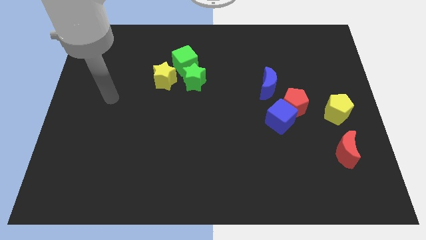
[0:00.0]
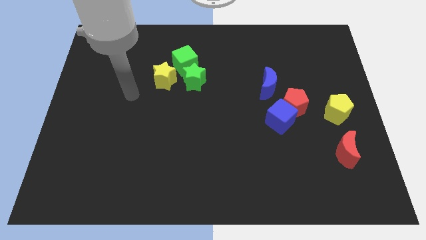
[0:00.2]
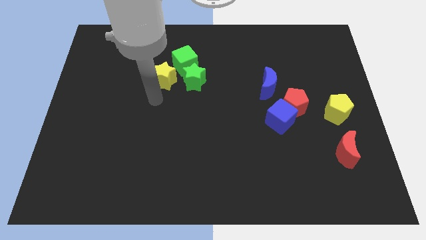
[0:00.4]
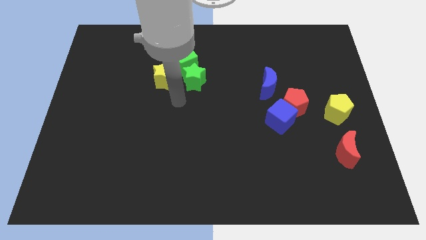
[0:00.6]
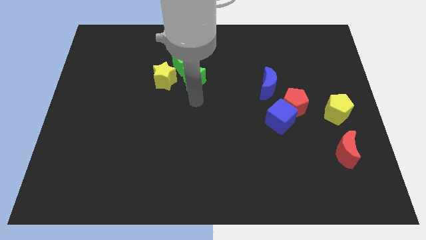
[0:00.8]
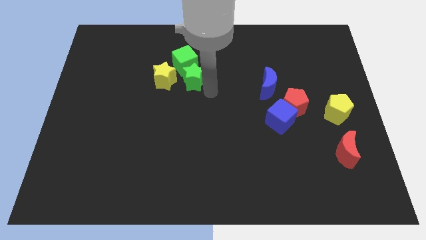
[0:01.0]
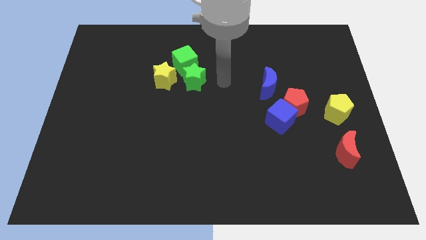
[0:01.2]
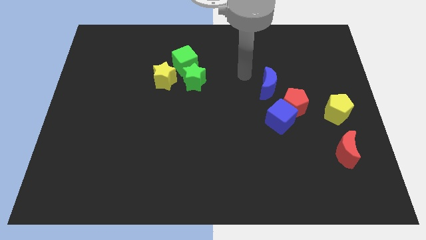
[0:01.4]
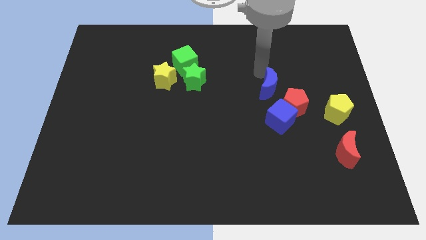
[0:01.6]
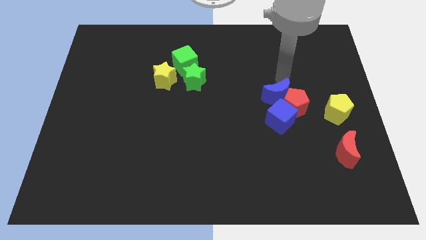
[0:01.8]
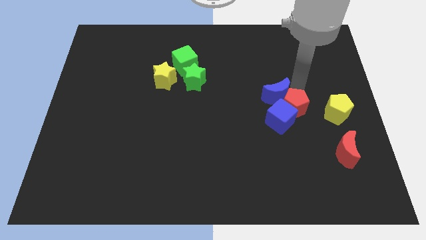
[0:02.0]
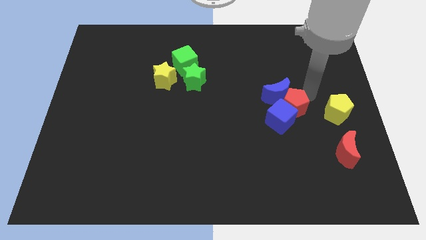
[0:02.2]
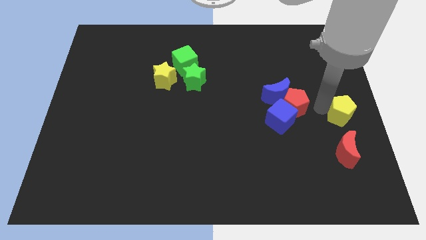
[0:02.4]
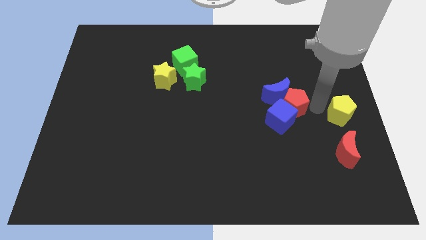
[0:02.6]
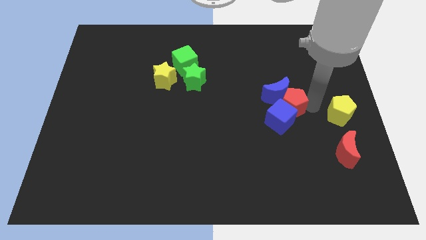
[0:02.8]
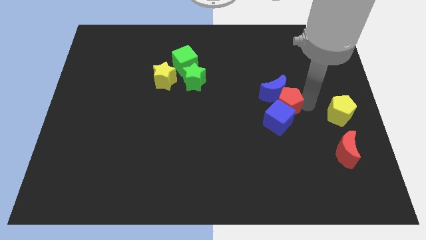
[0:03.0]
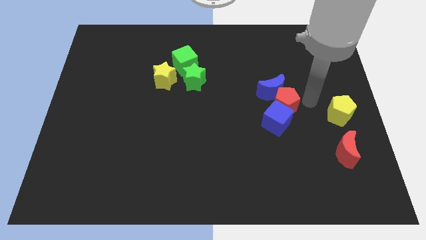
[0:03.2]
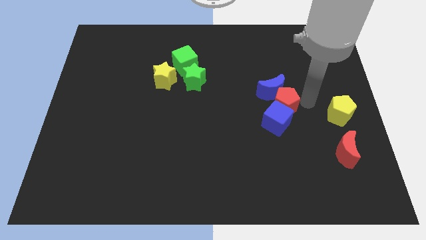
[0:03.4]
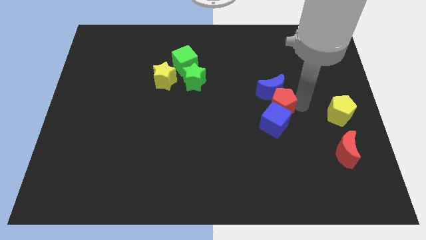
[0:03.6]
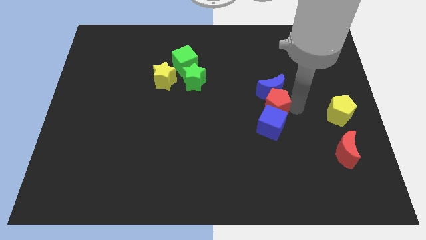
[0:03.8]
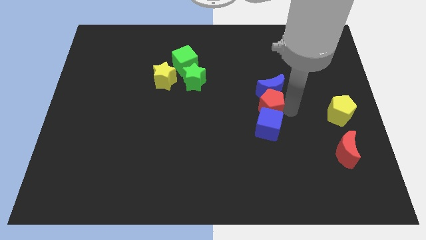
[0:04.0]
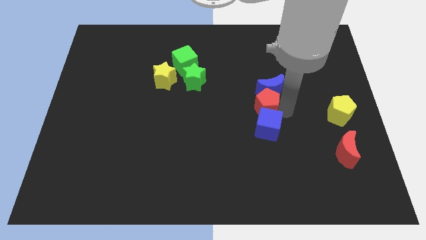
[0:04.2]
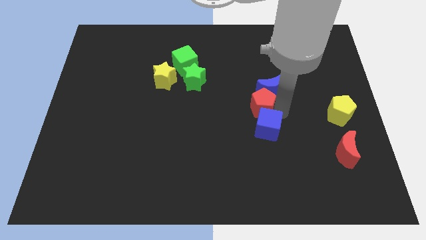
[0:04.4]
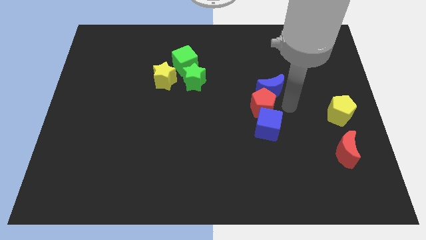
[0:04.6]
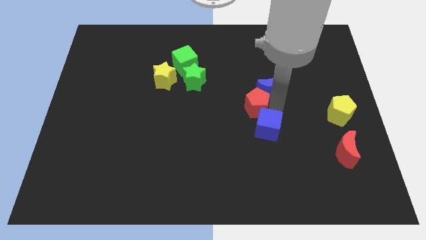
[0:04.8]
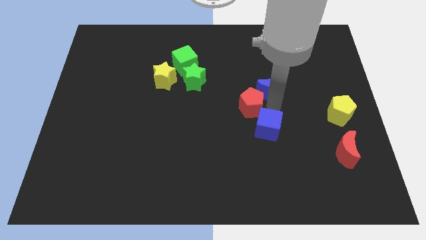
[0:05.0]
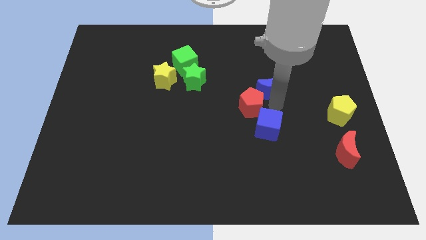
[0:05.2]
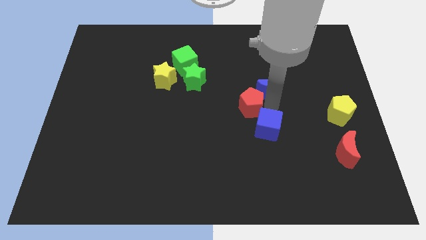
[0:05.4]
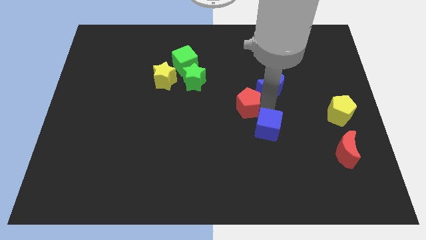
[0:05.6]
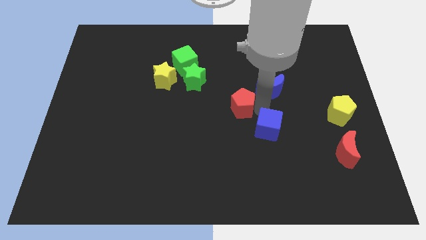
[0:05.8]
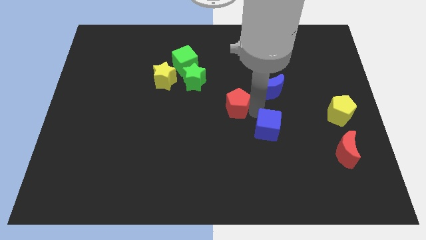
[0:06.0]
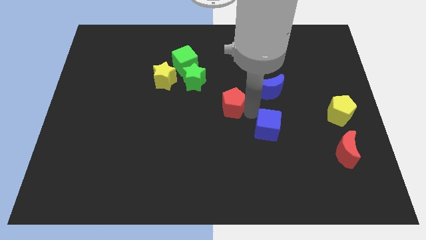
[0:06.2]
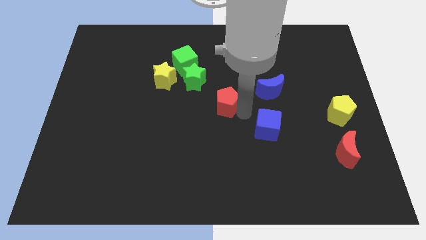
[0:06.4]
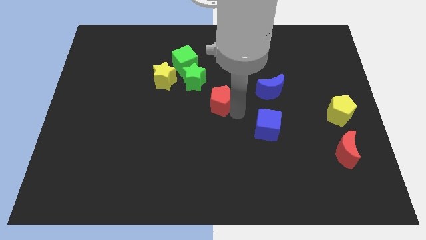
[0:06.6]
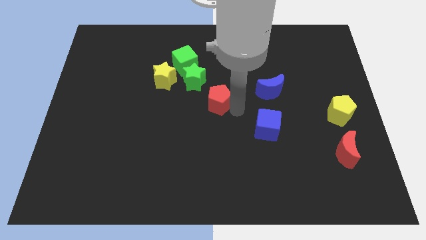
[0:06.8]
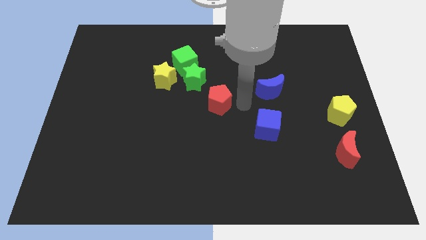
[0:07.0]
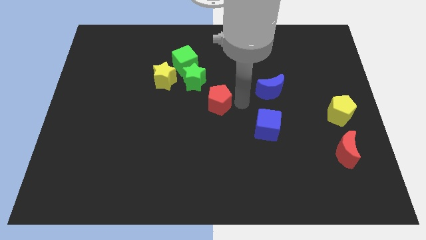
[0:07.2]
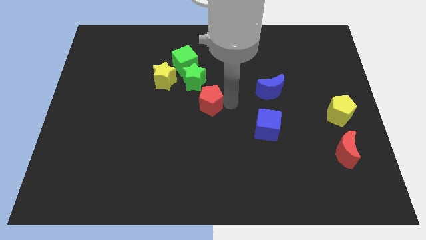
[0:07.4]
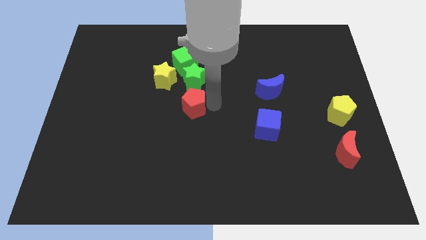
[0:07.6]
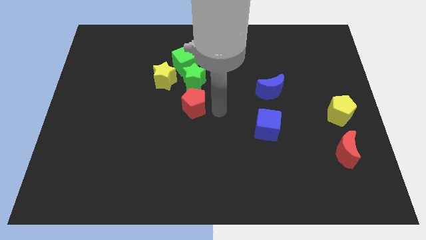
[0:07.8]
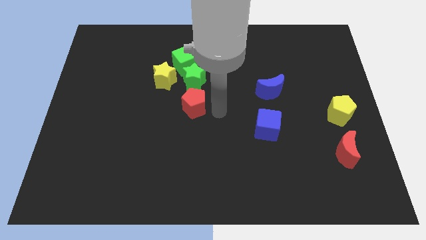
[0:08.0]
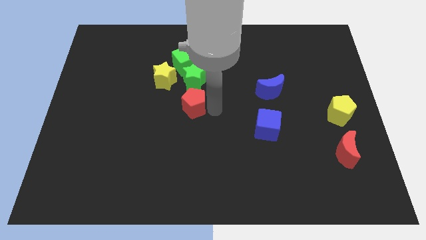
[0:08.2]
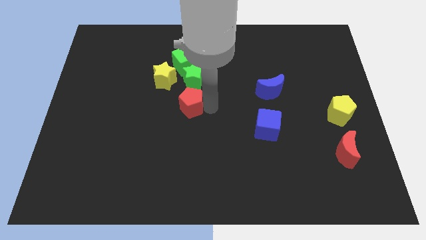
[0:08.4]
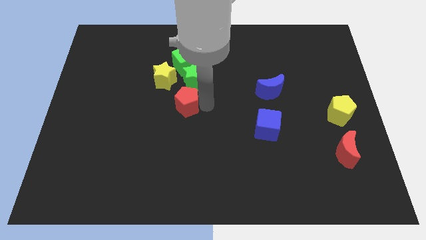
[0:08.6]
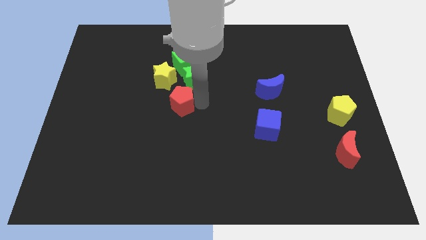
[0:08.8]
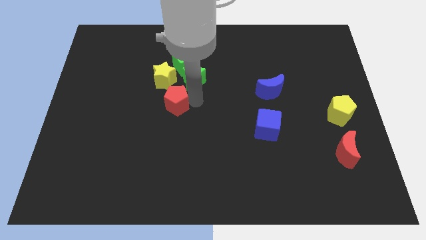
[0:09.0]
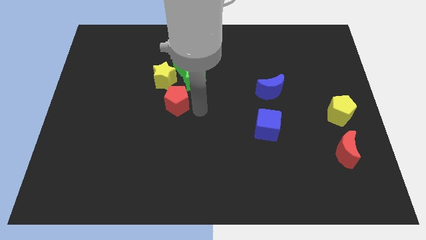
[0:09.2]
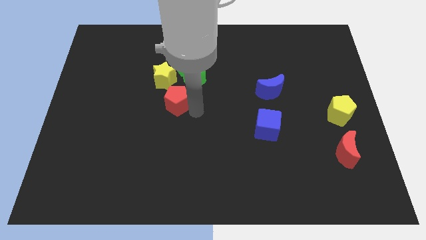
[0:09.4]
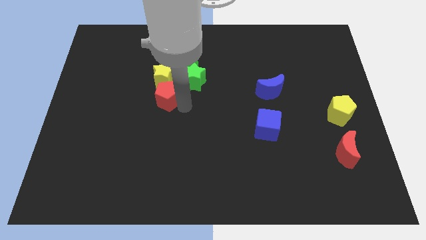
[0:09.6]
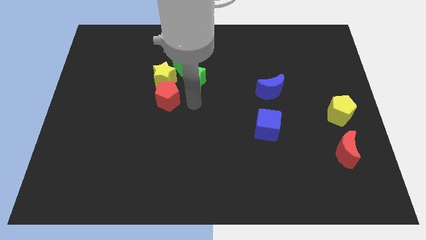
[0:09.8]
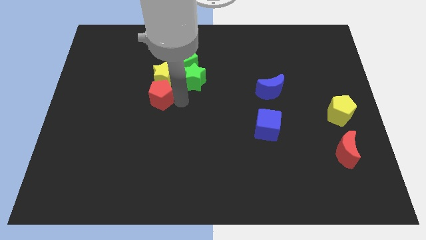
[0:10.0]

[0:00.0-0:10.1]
put the red pentagon to the bottom left of the yellow star

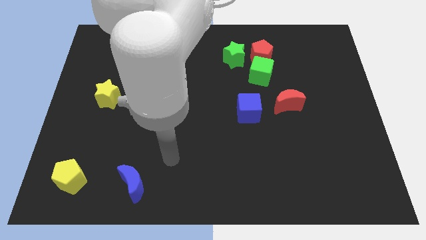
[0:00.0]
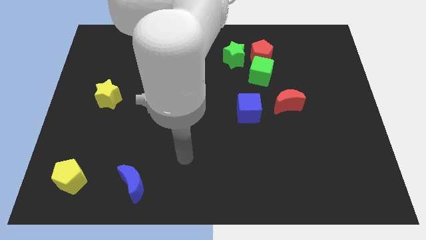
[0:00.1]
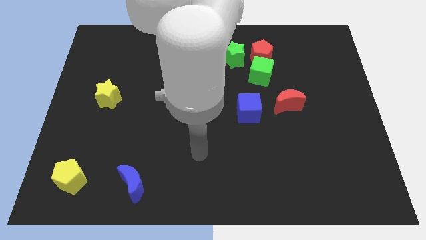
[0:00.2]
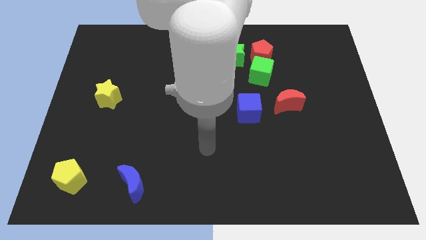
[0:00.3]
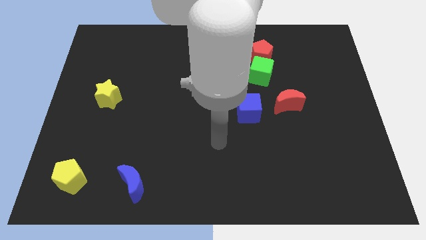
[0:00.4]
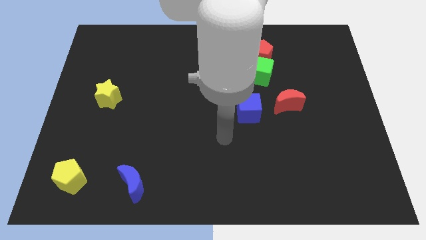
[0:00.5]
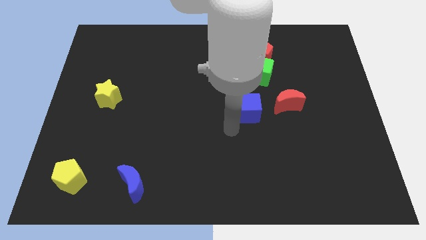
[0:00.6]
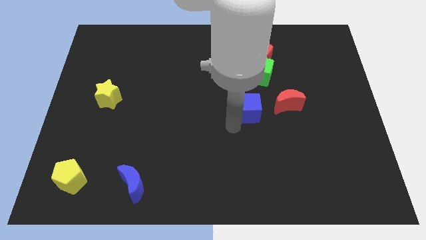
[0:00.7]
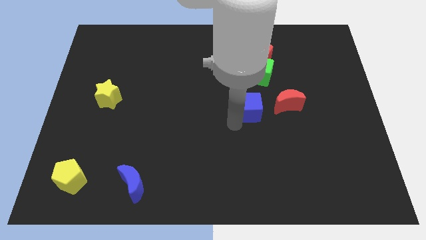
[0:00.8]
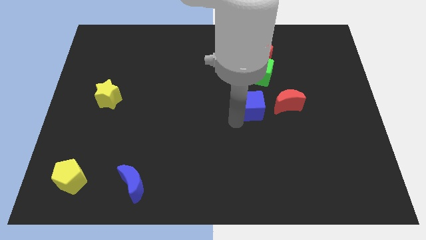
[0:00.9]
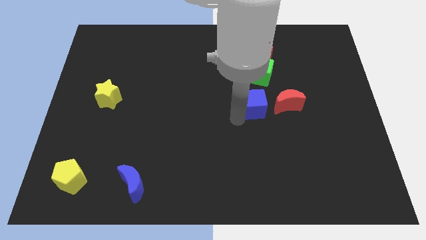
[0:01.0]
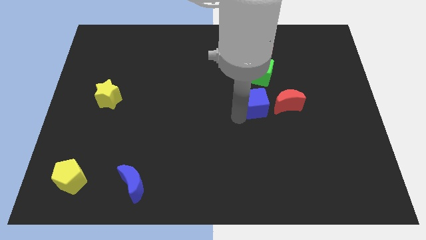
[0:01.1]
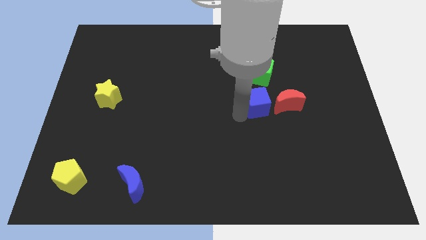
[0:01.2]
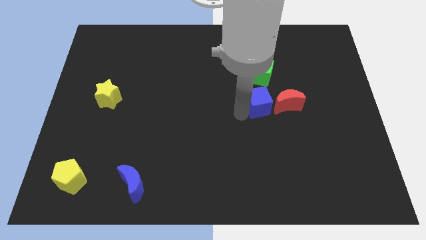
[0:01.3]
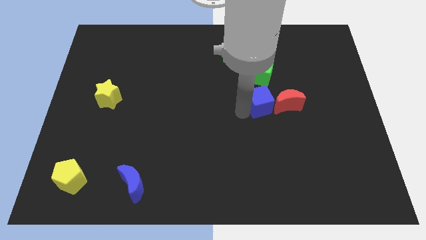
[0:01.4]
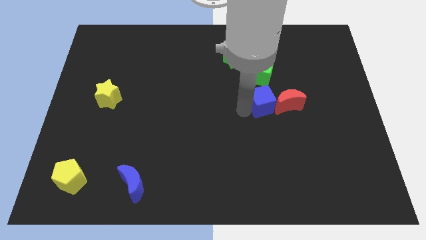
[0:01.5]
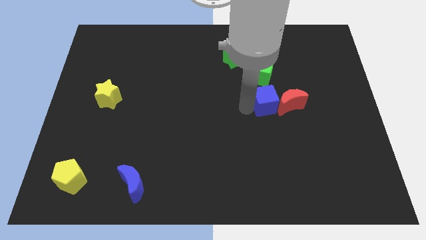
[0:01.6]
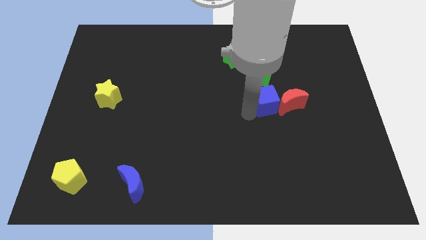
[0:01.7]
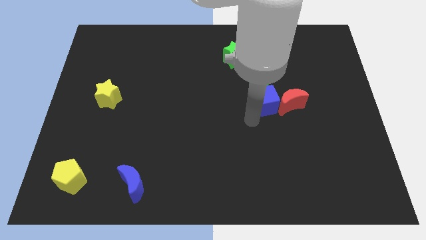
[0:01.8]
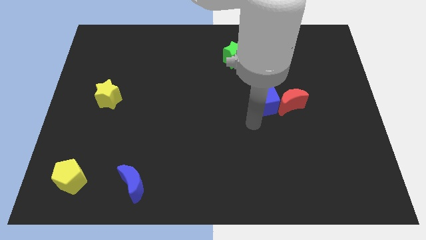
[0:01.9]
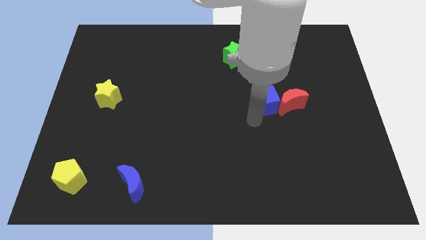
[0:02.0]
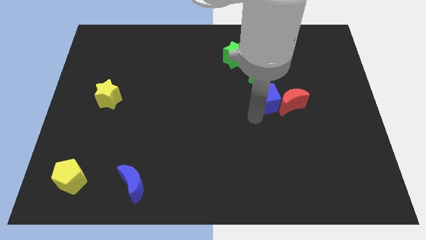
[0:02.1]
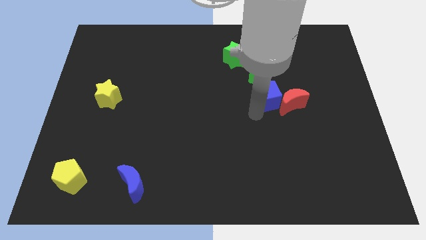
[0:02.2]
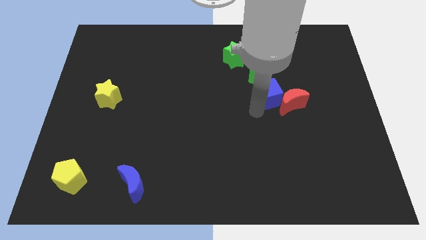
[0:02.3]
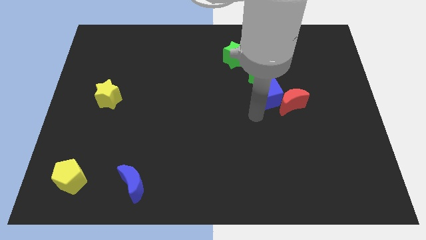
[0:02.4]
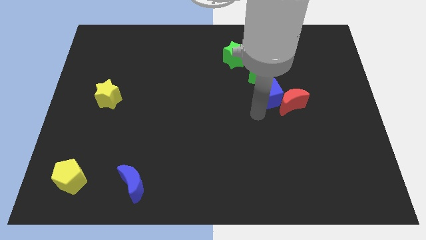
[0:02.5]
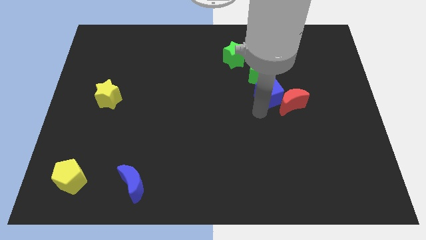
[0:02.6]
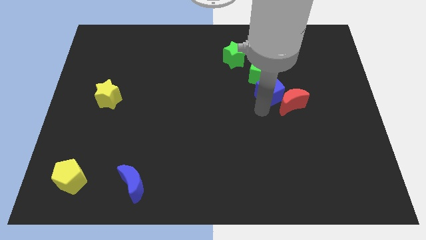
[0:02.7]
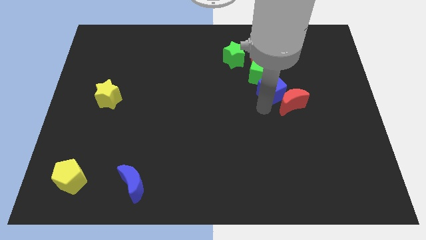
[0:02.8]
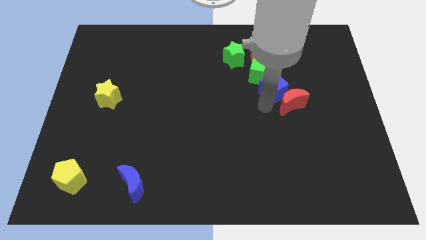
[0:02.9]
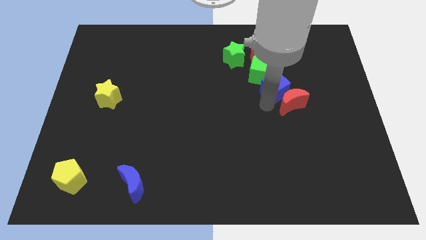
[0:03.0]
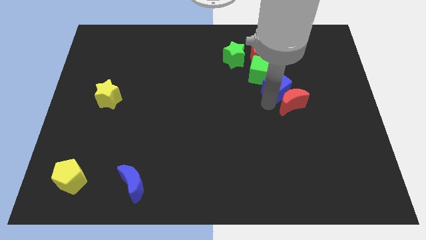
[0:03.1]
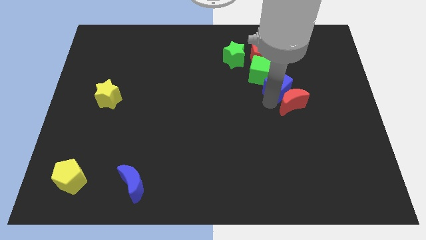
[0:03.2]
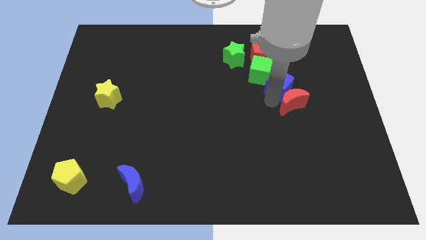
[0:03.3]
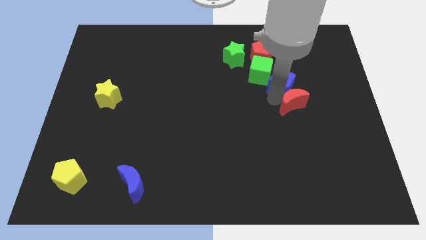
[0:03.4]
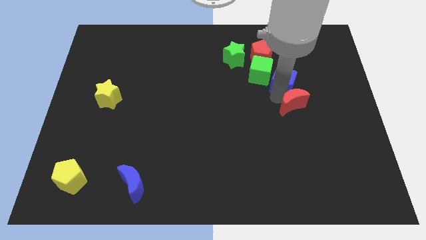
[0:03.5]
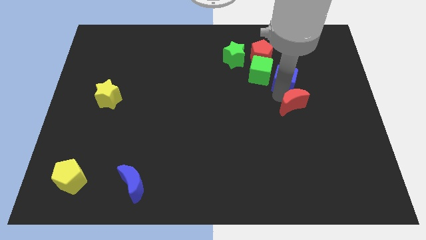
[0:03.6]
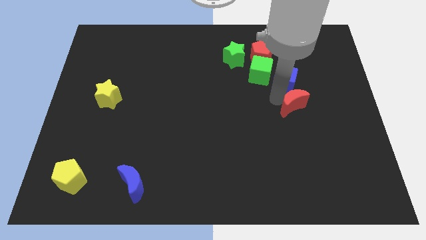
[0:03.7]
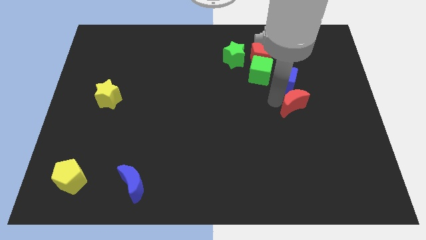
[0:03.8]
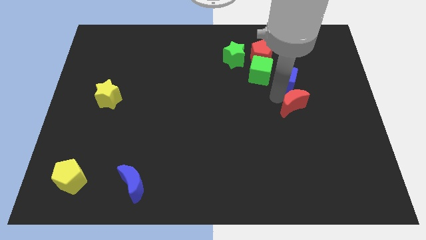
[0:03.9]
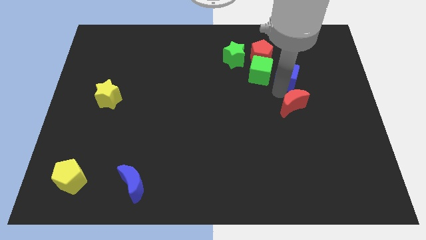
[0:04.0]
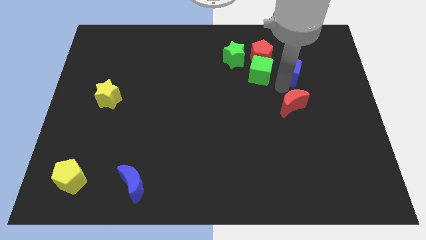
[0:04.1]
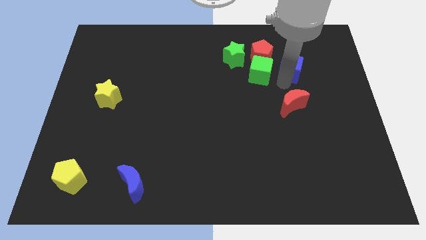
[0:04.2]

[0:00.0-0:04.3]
slide the blue cube to the right side of the red pentagon
